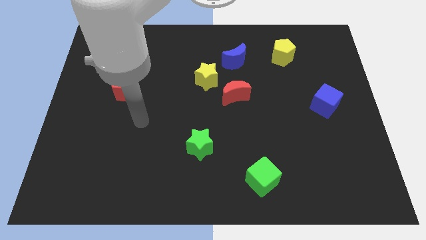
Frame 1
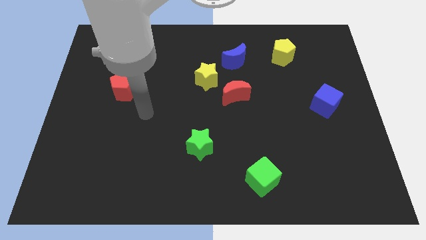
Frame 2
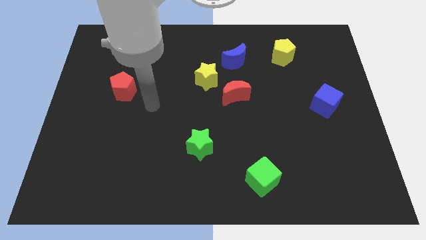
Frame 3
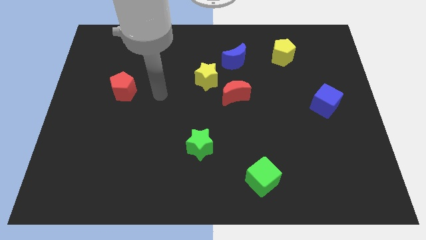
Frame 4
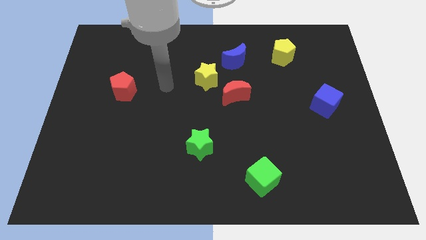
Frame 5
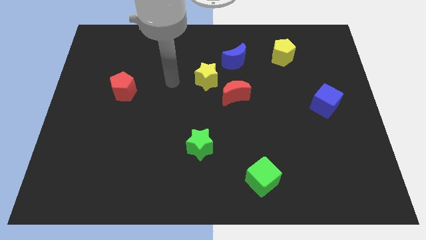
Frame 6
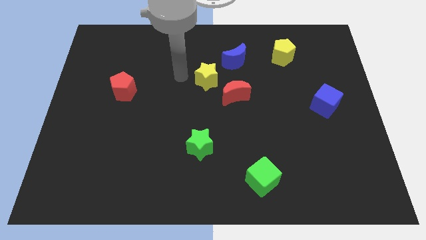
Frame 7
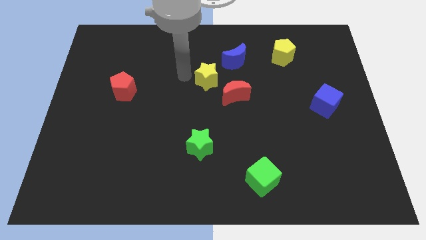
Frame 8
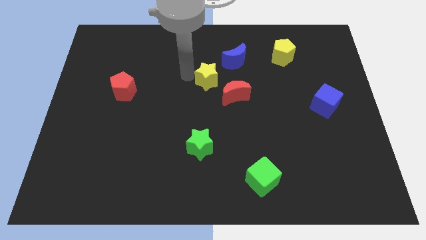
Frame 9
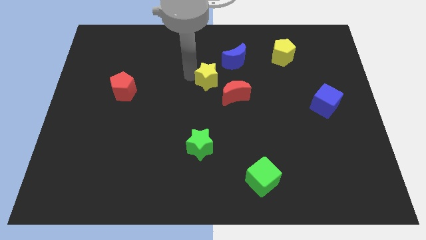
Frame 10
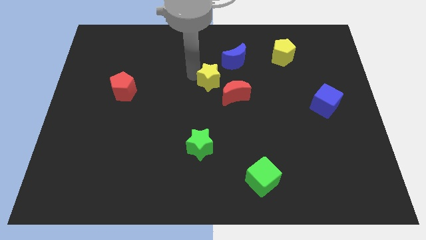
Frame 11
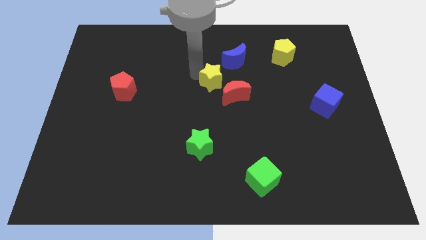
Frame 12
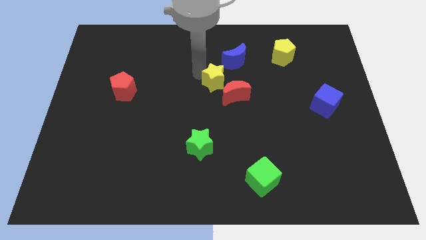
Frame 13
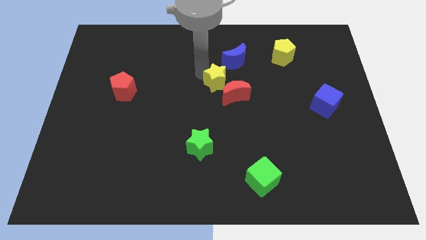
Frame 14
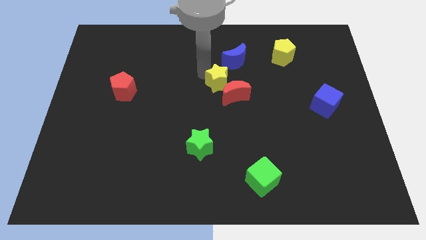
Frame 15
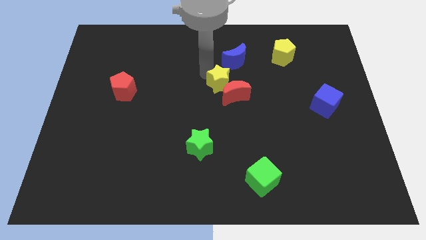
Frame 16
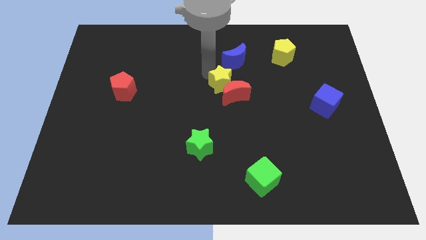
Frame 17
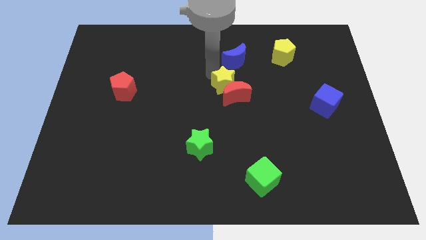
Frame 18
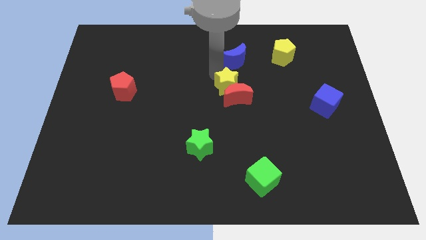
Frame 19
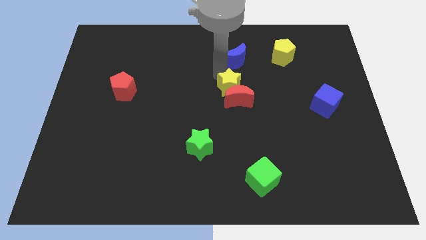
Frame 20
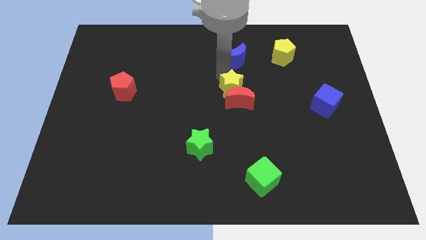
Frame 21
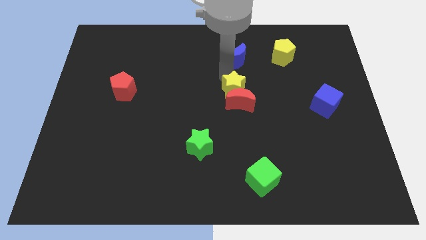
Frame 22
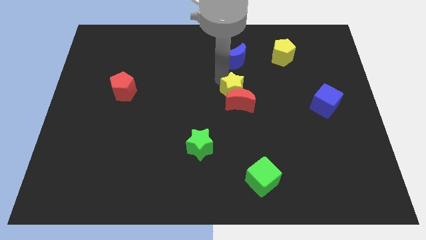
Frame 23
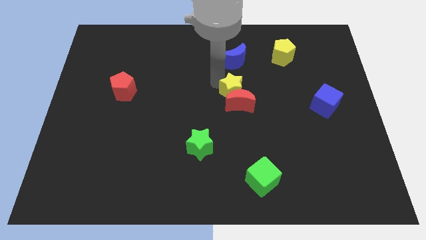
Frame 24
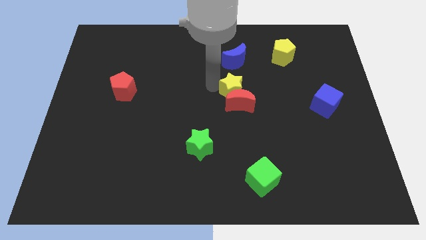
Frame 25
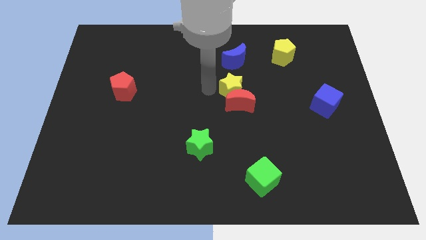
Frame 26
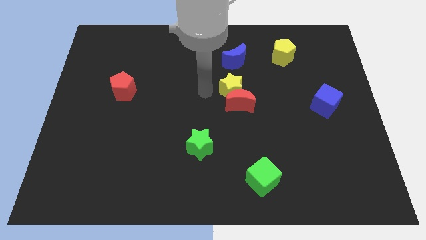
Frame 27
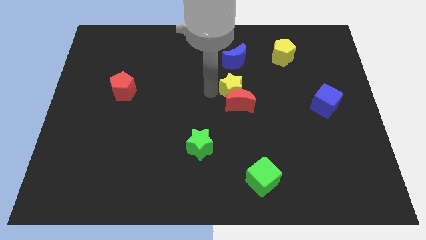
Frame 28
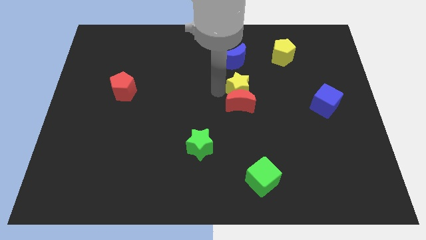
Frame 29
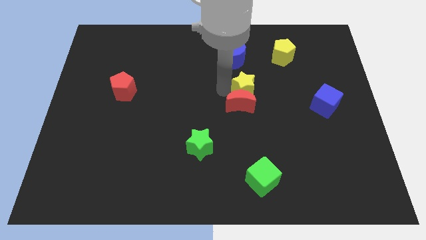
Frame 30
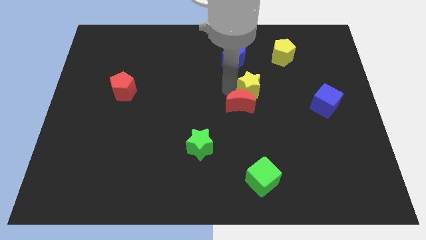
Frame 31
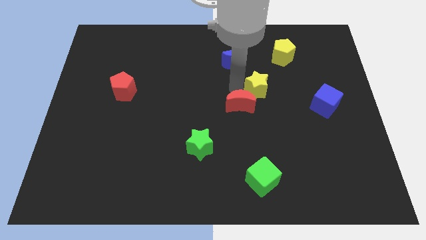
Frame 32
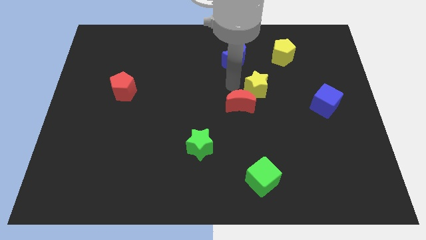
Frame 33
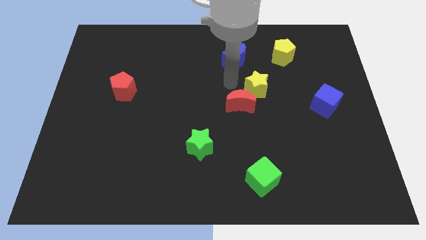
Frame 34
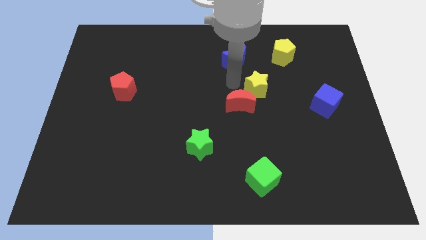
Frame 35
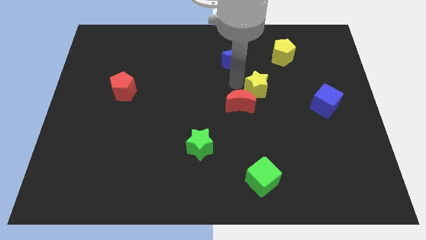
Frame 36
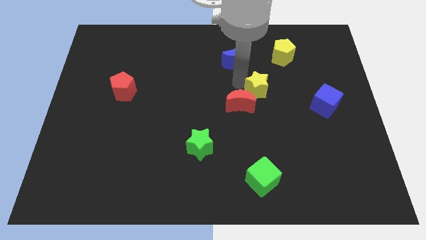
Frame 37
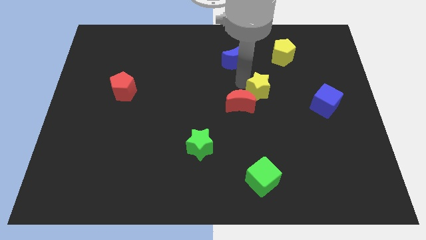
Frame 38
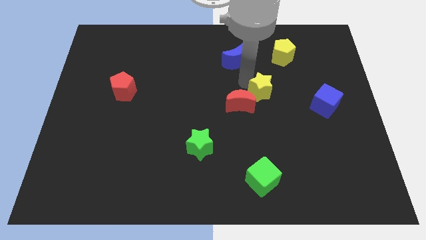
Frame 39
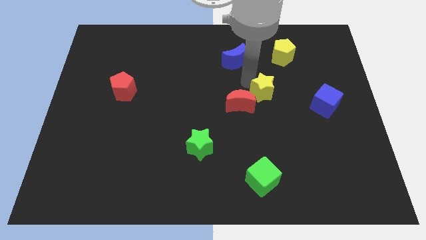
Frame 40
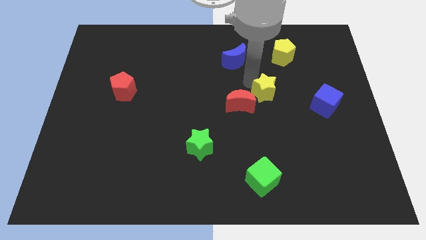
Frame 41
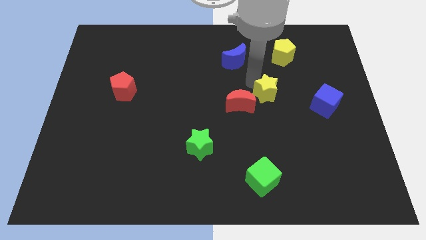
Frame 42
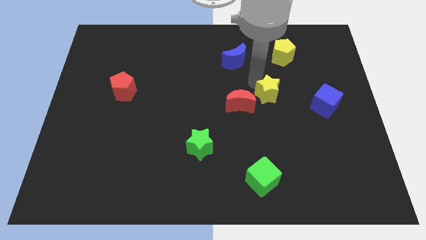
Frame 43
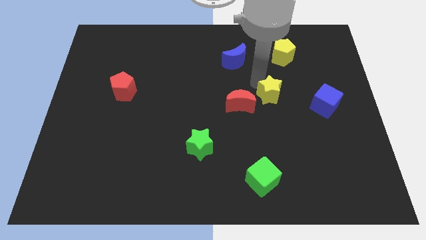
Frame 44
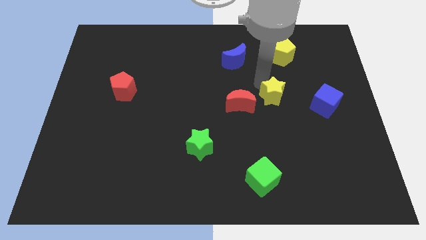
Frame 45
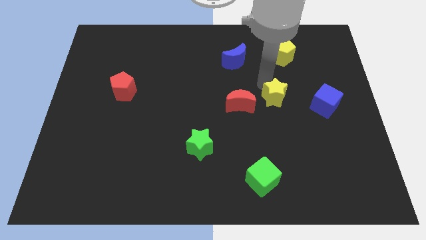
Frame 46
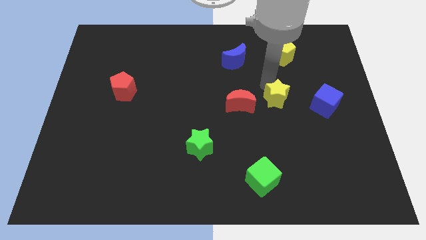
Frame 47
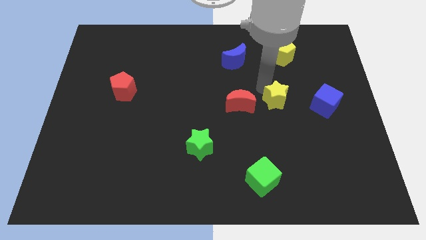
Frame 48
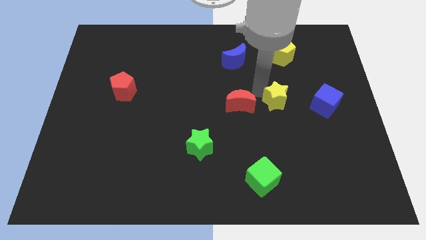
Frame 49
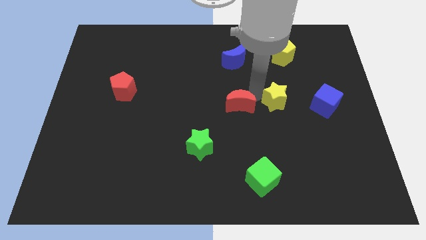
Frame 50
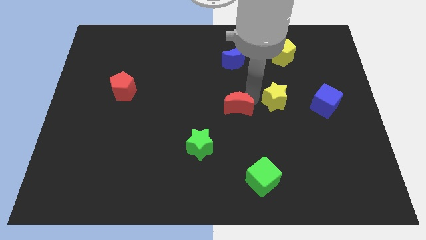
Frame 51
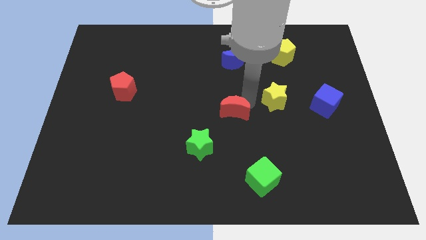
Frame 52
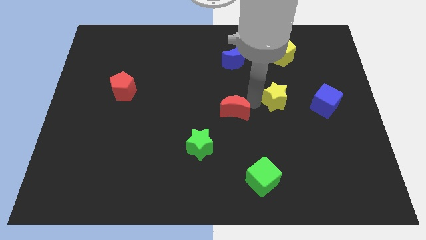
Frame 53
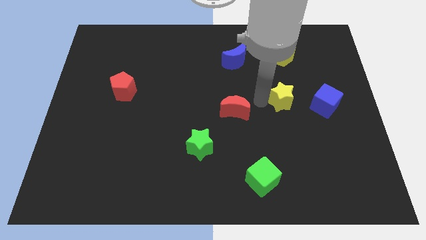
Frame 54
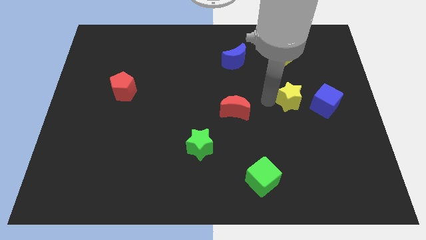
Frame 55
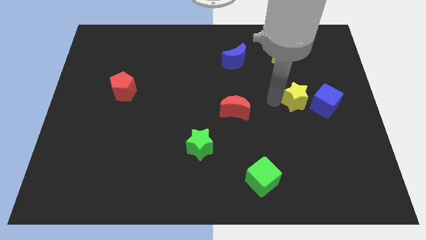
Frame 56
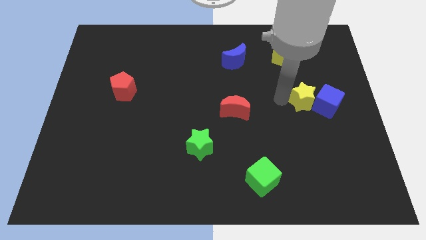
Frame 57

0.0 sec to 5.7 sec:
move the yellow star close to the blue cube

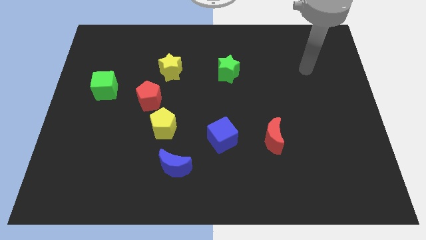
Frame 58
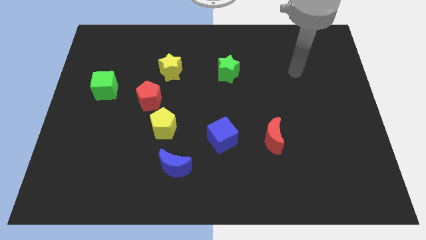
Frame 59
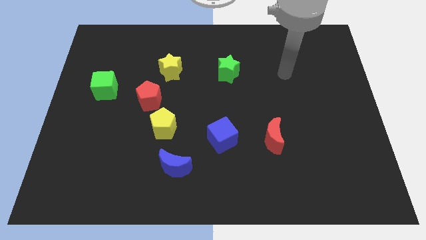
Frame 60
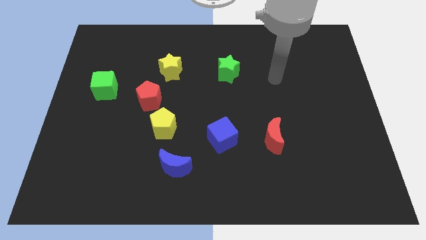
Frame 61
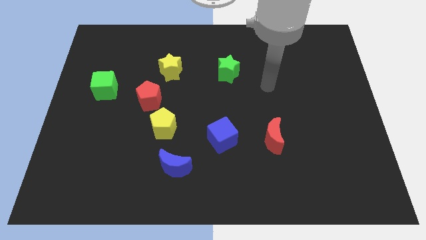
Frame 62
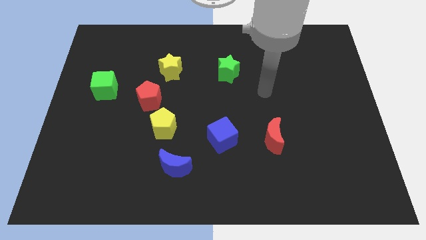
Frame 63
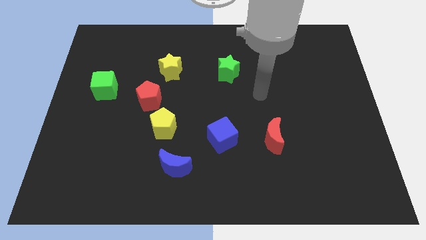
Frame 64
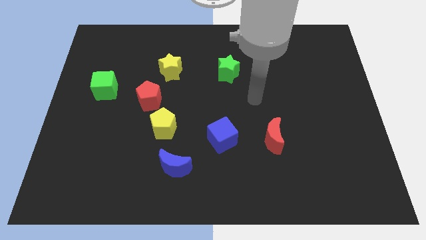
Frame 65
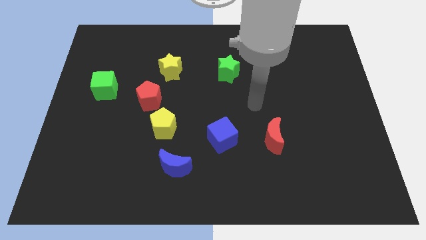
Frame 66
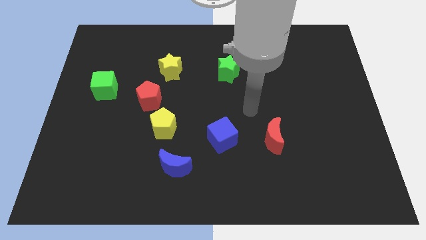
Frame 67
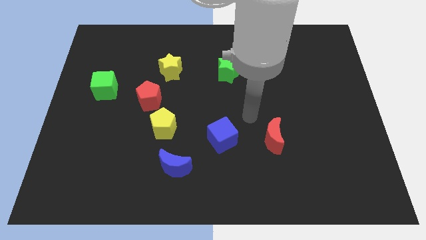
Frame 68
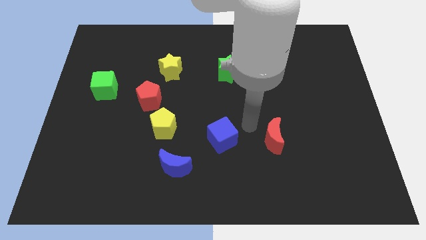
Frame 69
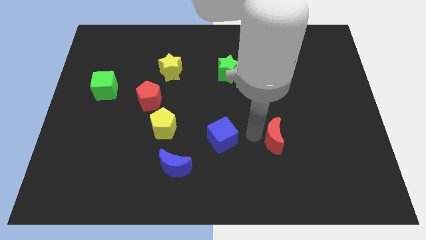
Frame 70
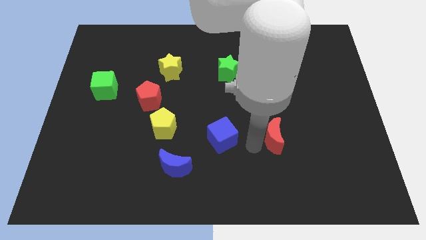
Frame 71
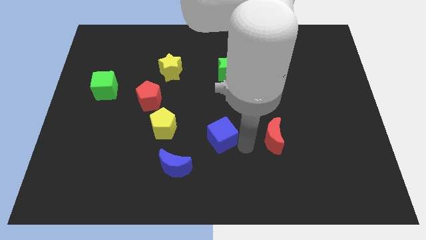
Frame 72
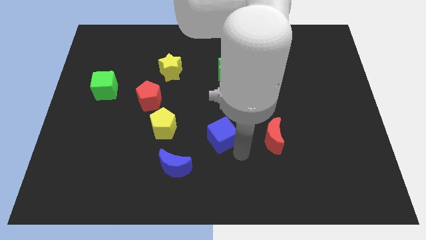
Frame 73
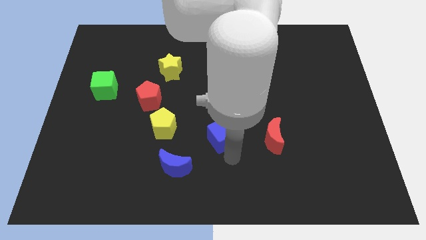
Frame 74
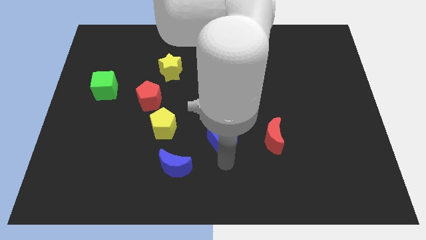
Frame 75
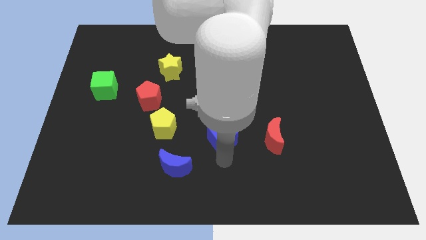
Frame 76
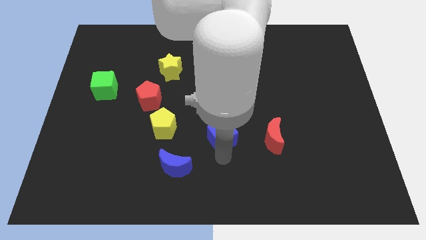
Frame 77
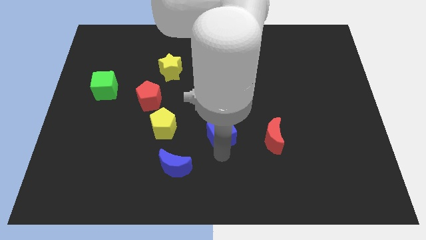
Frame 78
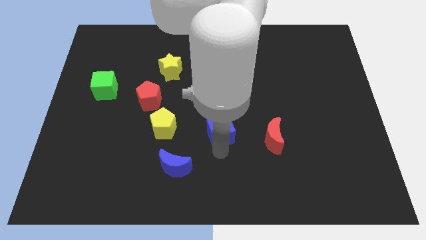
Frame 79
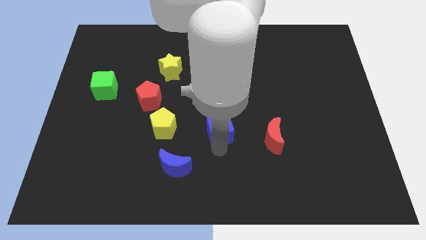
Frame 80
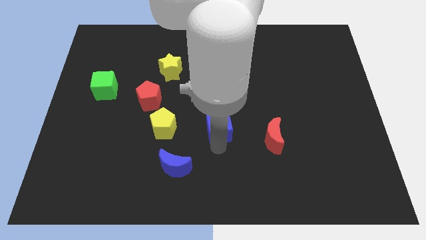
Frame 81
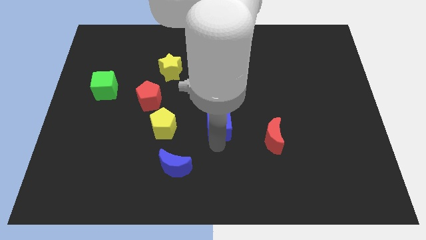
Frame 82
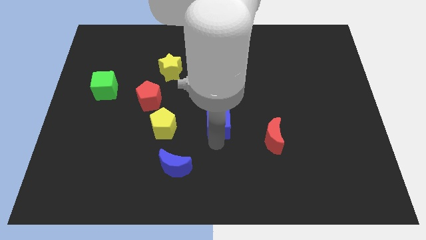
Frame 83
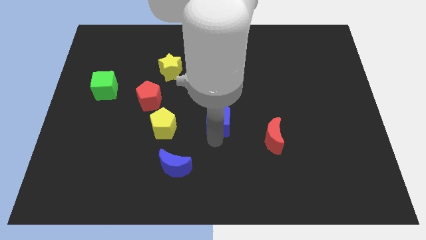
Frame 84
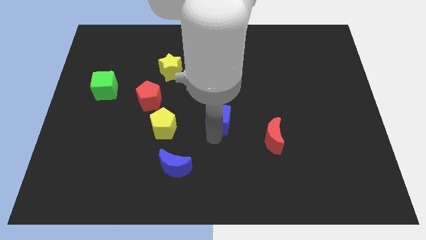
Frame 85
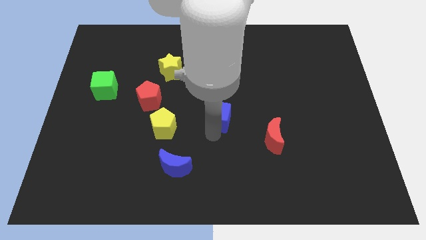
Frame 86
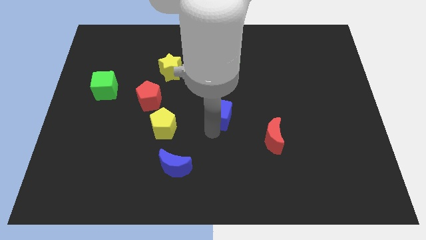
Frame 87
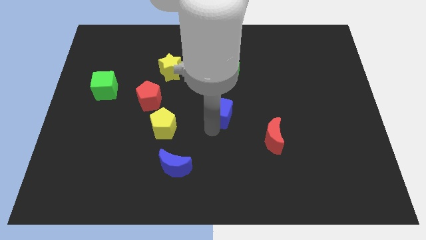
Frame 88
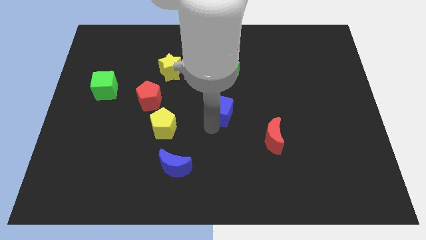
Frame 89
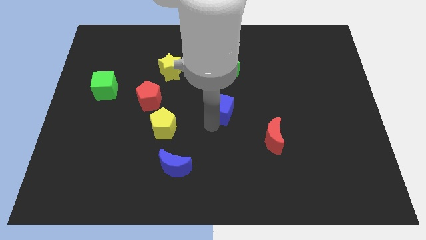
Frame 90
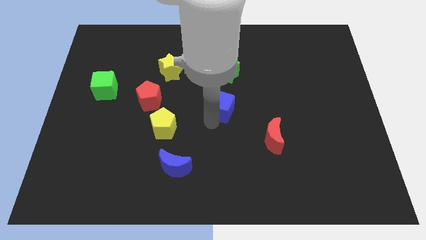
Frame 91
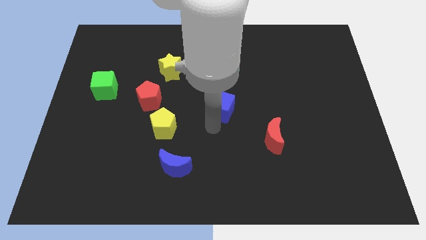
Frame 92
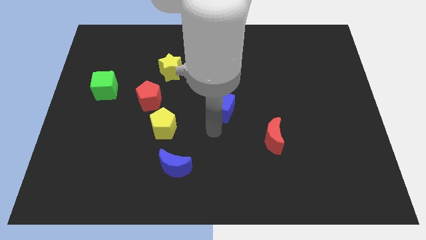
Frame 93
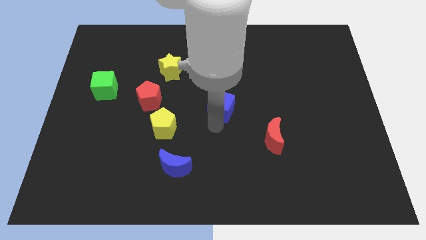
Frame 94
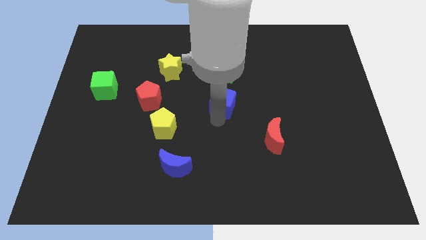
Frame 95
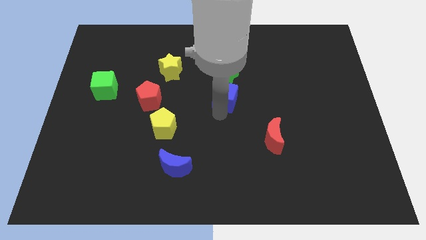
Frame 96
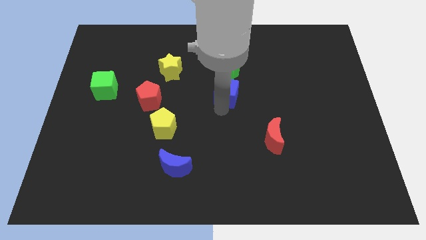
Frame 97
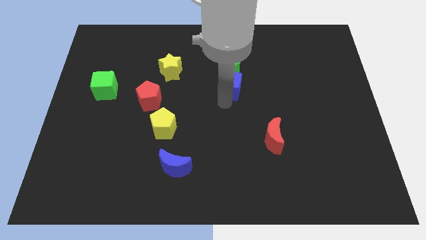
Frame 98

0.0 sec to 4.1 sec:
move the blue cube close to the green star
